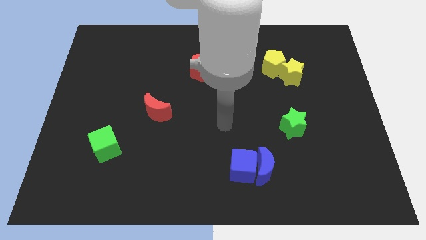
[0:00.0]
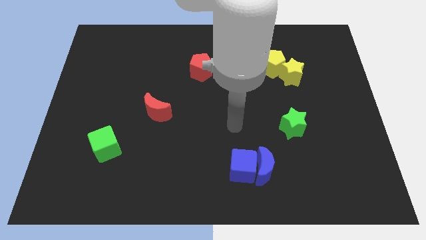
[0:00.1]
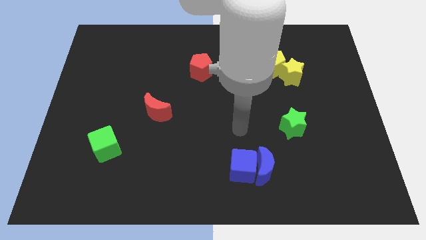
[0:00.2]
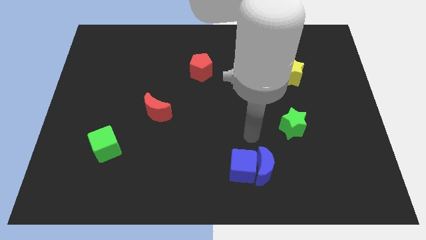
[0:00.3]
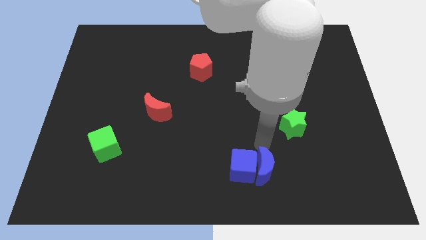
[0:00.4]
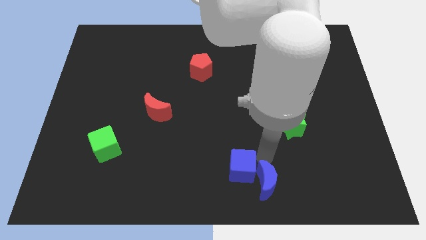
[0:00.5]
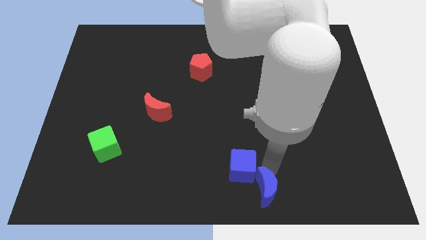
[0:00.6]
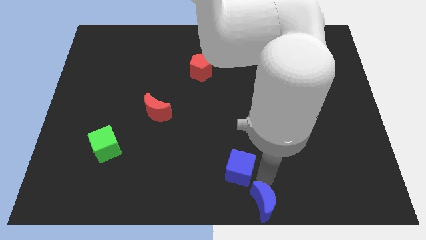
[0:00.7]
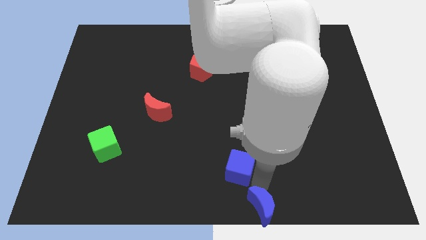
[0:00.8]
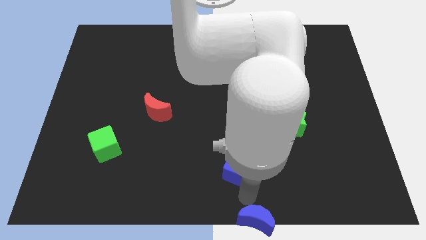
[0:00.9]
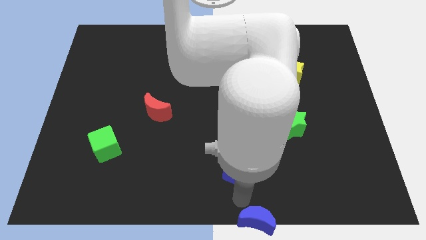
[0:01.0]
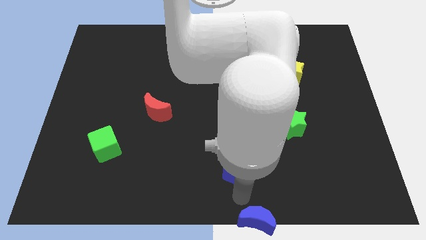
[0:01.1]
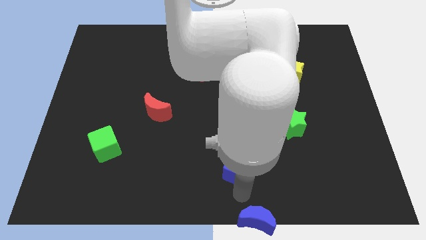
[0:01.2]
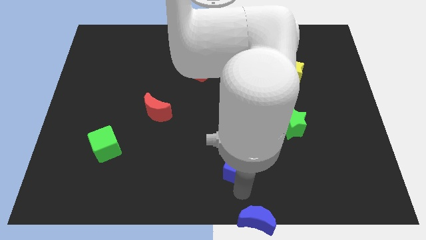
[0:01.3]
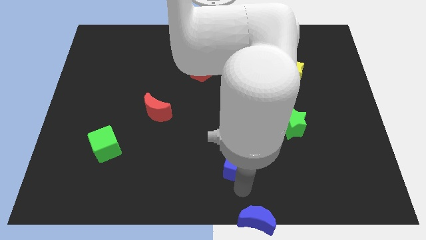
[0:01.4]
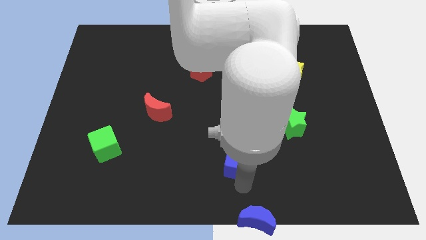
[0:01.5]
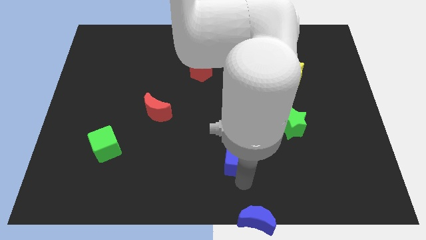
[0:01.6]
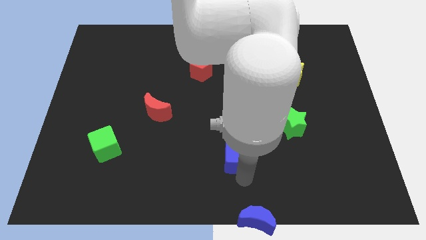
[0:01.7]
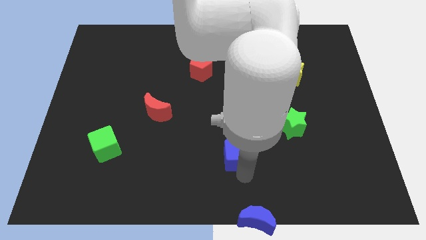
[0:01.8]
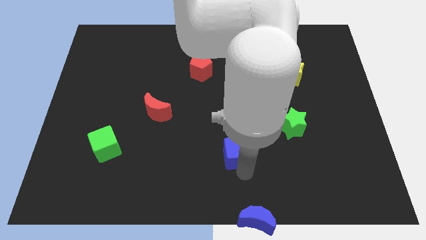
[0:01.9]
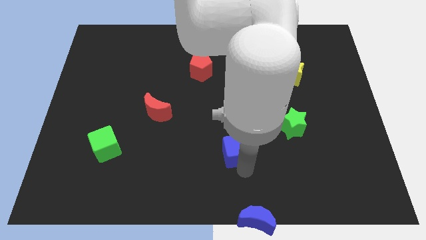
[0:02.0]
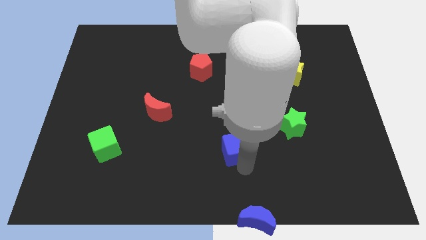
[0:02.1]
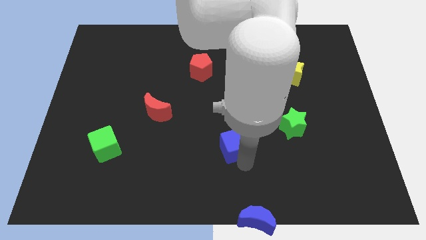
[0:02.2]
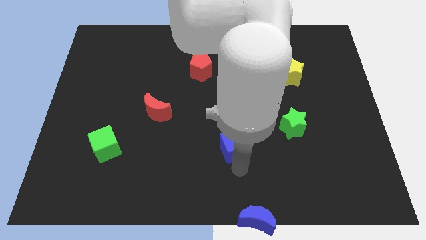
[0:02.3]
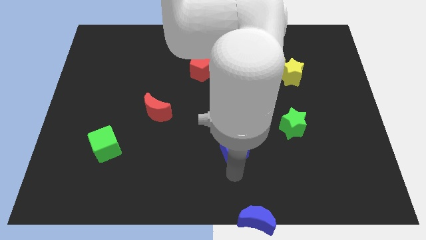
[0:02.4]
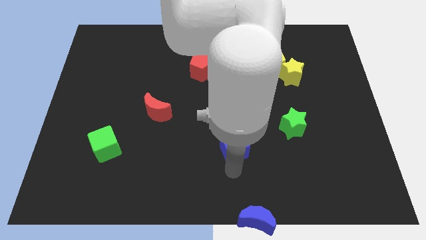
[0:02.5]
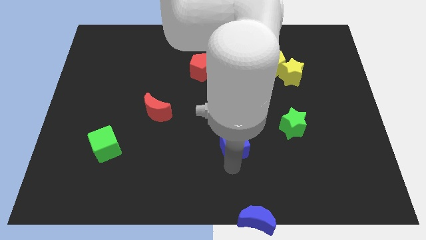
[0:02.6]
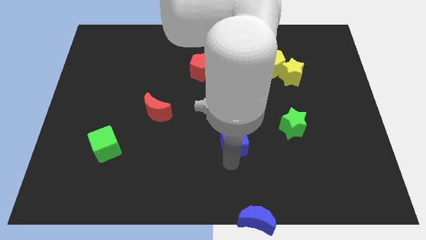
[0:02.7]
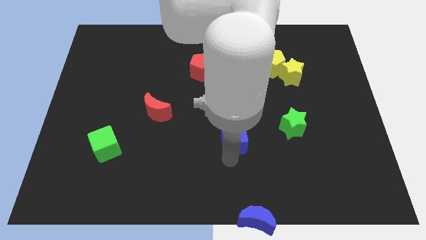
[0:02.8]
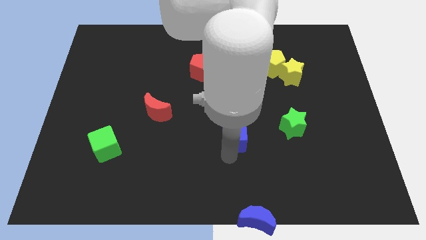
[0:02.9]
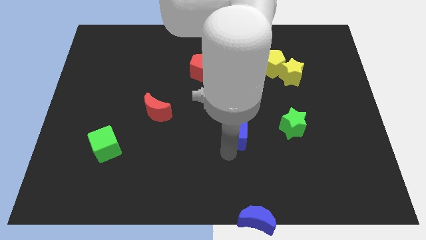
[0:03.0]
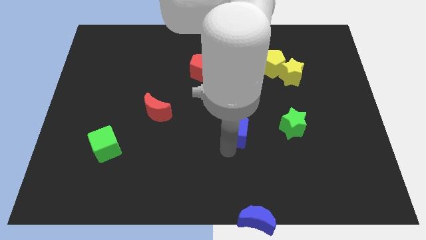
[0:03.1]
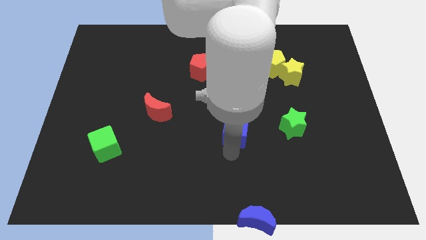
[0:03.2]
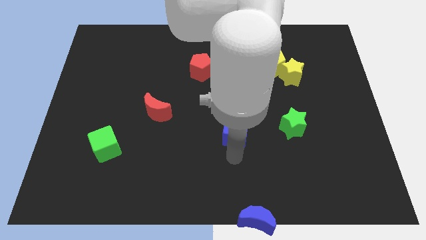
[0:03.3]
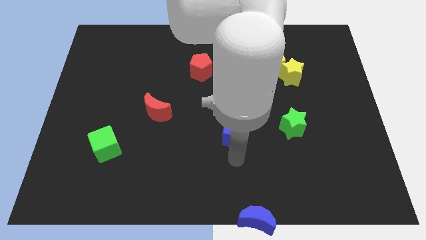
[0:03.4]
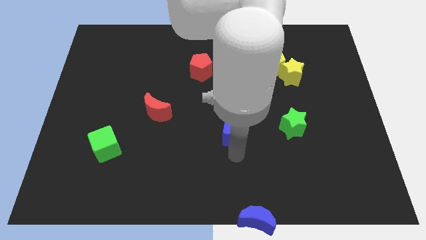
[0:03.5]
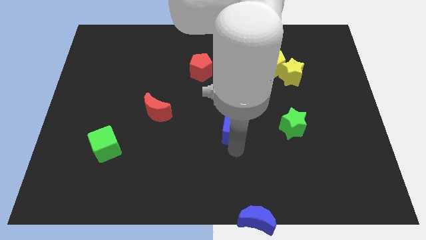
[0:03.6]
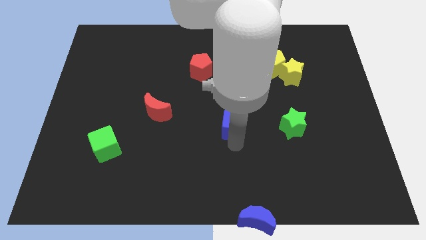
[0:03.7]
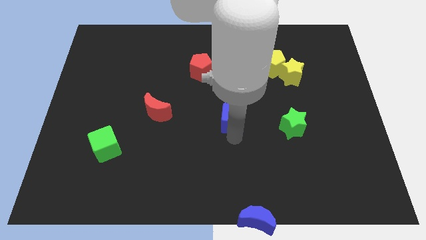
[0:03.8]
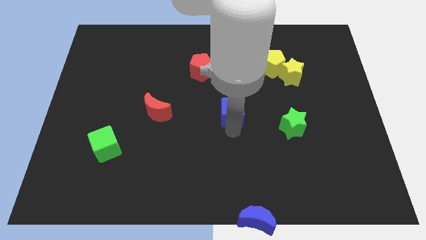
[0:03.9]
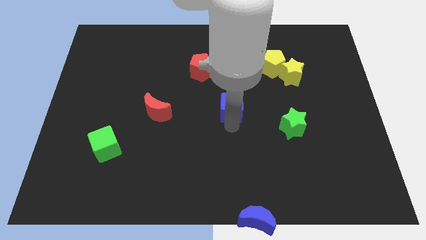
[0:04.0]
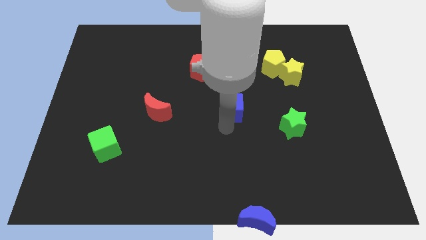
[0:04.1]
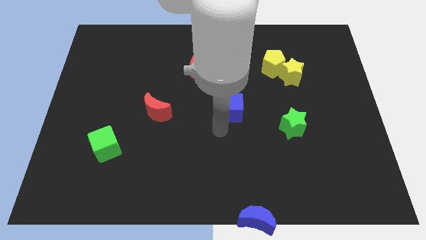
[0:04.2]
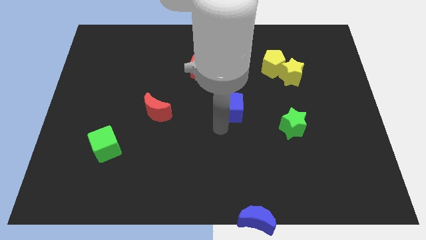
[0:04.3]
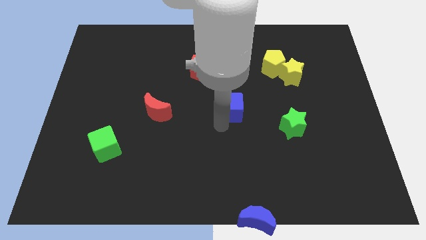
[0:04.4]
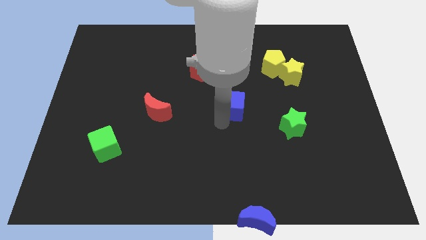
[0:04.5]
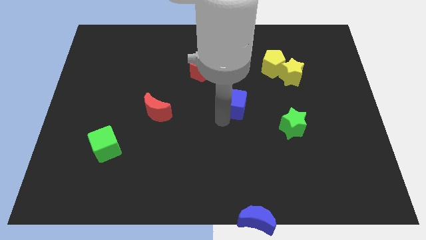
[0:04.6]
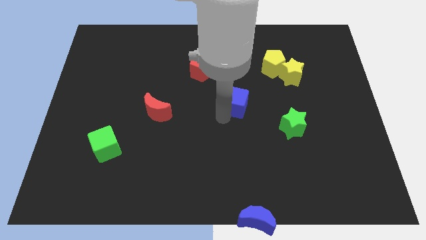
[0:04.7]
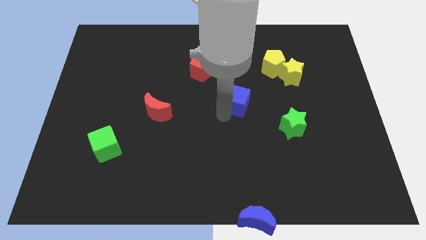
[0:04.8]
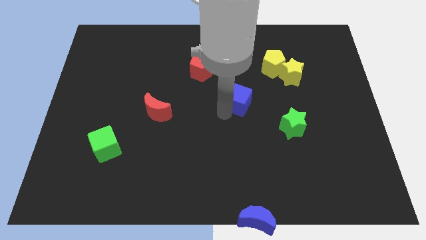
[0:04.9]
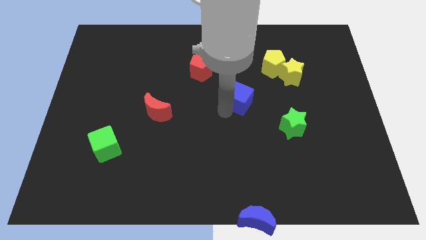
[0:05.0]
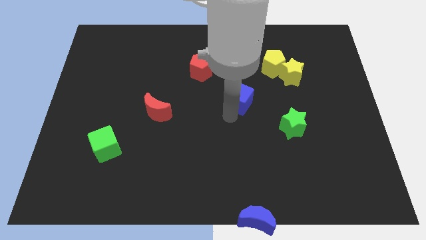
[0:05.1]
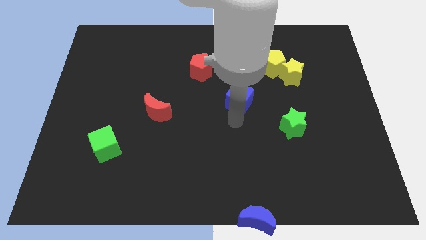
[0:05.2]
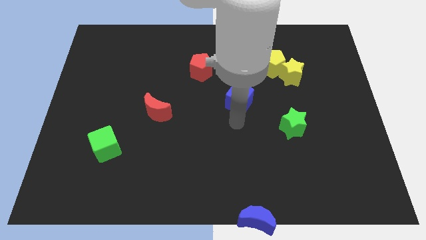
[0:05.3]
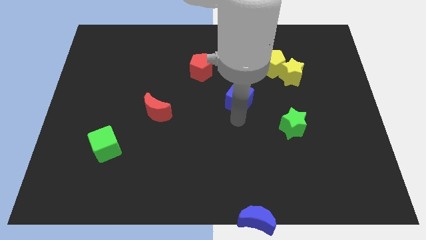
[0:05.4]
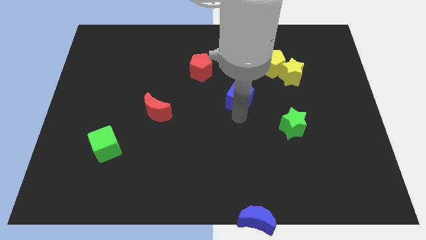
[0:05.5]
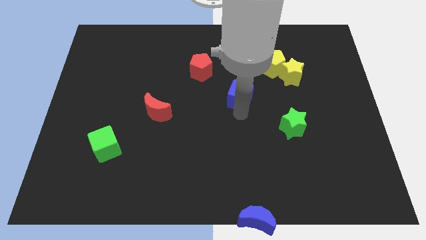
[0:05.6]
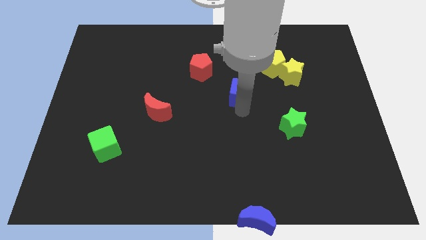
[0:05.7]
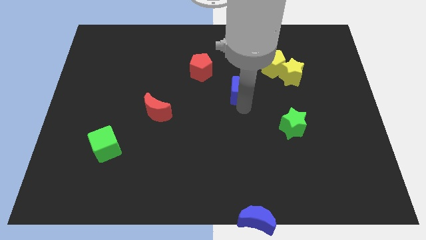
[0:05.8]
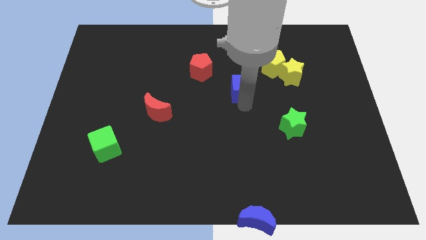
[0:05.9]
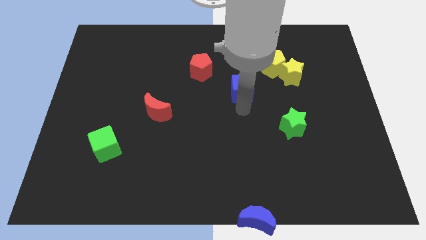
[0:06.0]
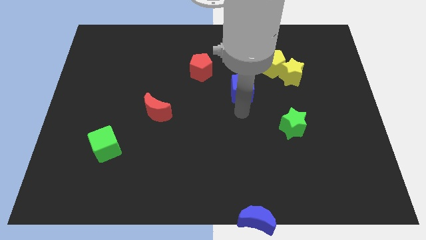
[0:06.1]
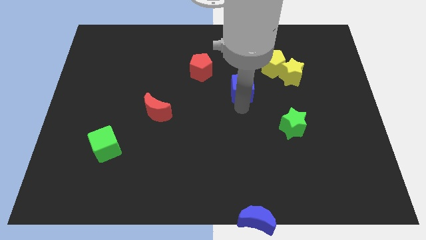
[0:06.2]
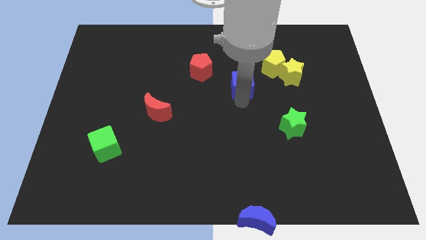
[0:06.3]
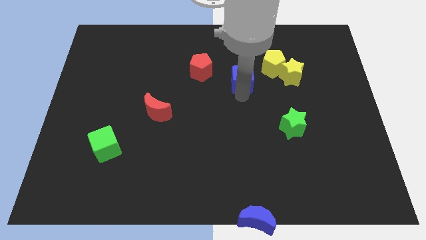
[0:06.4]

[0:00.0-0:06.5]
put the blue cube just right of the red pentagon

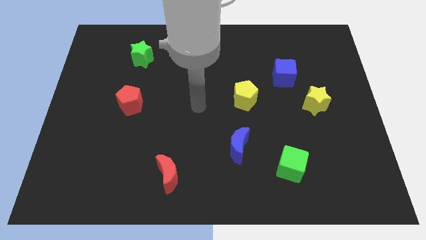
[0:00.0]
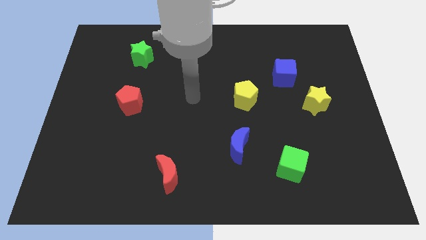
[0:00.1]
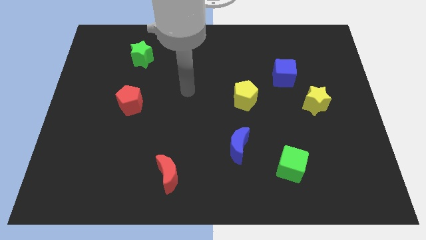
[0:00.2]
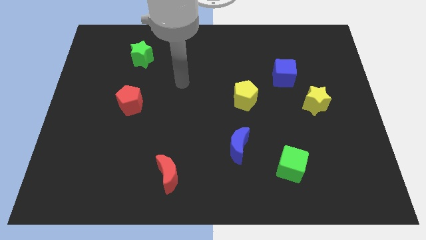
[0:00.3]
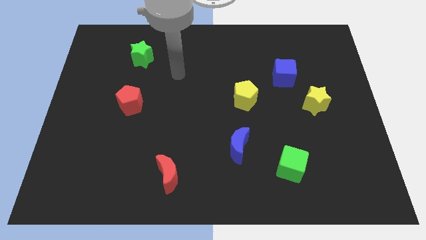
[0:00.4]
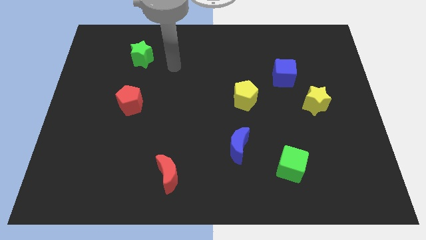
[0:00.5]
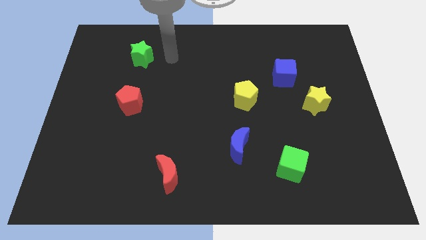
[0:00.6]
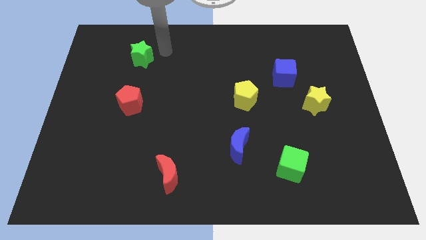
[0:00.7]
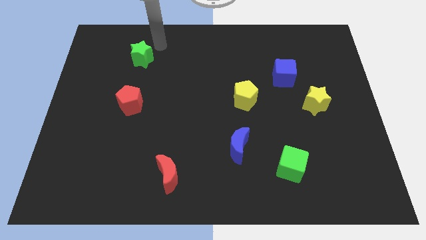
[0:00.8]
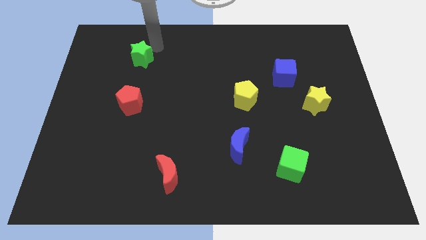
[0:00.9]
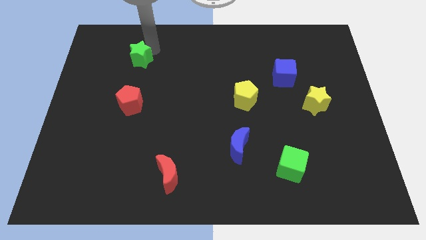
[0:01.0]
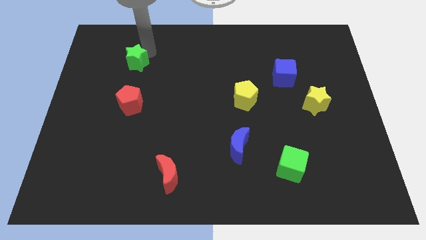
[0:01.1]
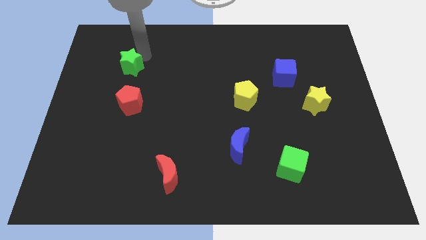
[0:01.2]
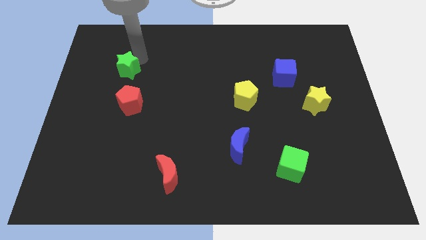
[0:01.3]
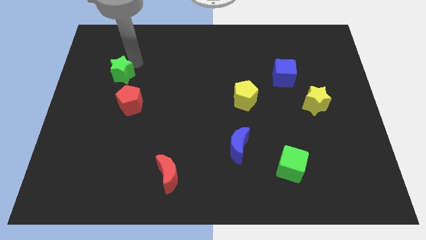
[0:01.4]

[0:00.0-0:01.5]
move the green star to the top left of the red pentagon
